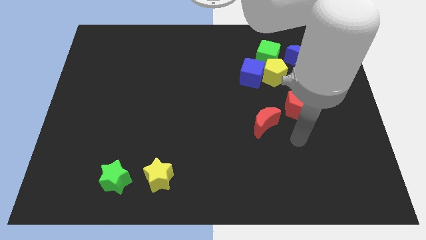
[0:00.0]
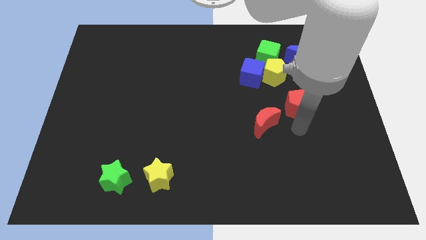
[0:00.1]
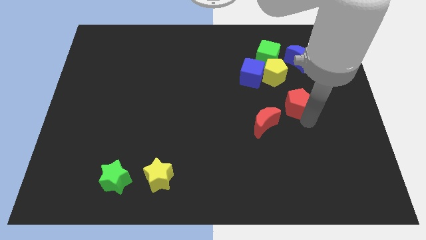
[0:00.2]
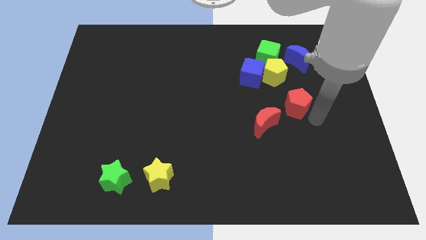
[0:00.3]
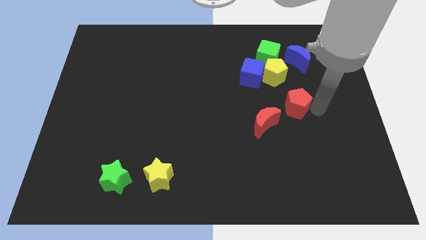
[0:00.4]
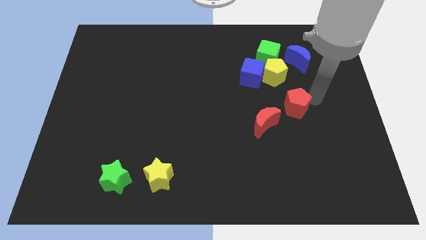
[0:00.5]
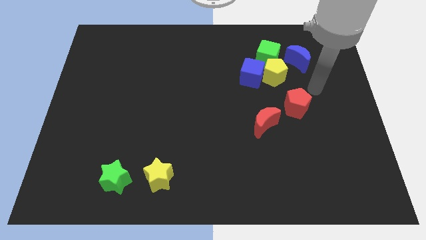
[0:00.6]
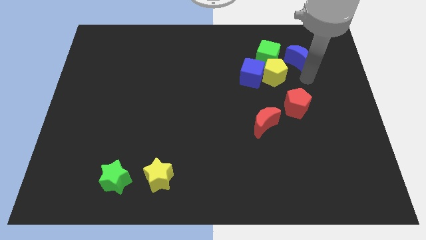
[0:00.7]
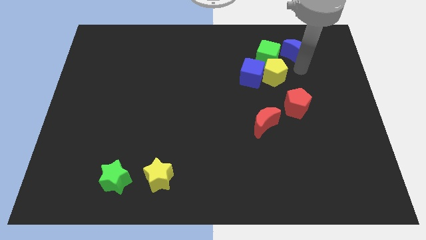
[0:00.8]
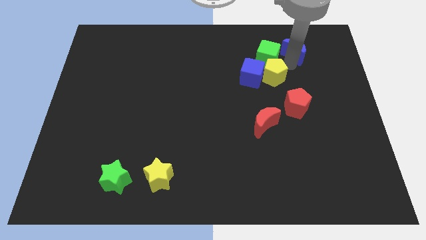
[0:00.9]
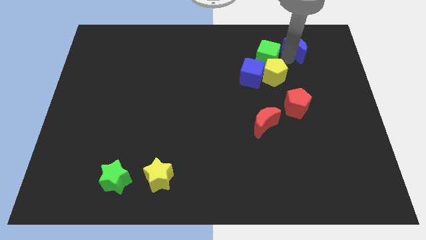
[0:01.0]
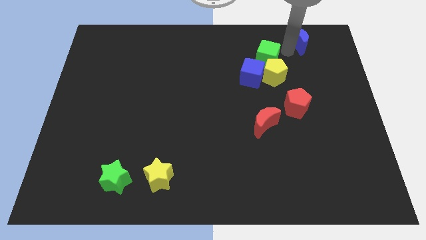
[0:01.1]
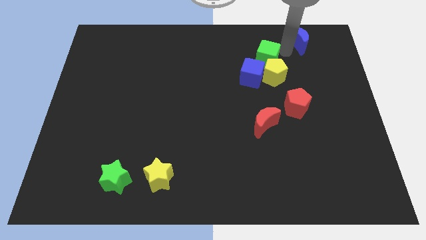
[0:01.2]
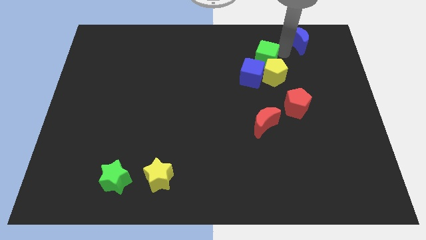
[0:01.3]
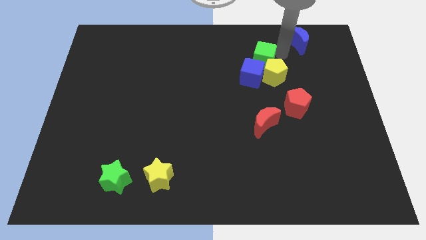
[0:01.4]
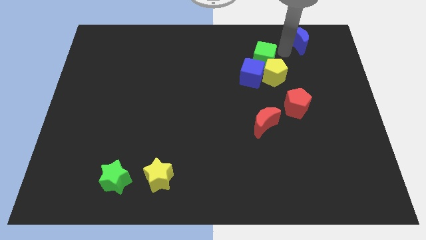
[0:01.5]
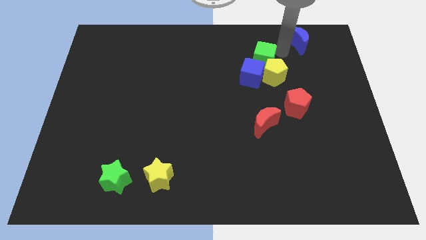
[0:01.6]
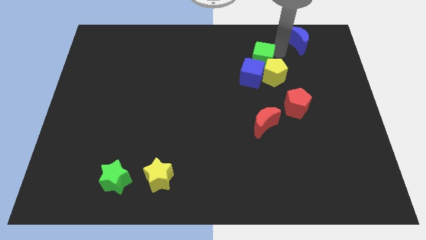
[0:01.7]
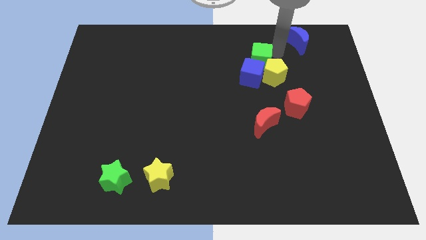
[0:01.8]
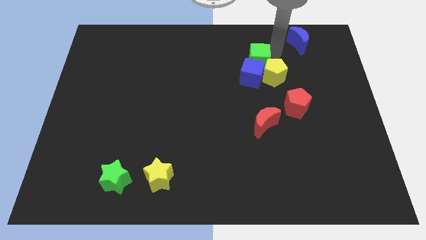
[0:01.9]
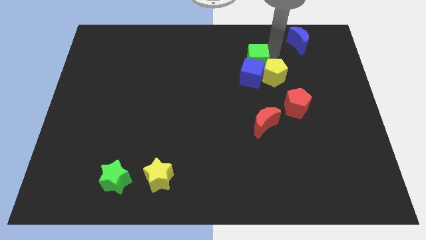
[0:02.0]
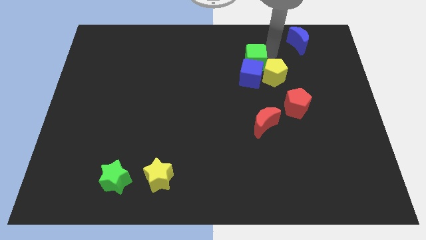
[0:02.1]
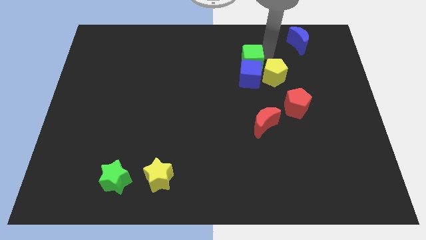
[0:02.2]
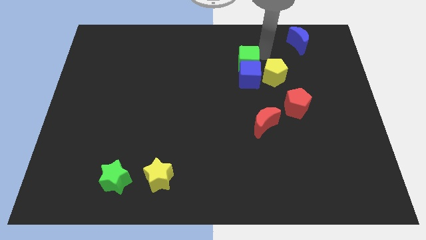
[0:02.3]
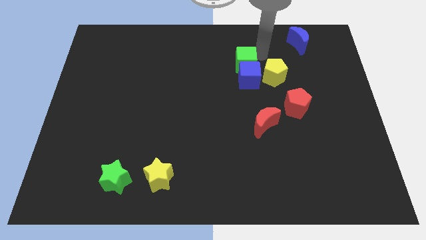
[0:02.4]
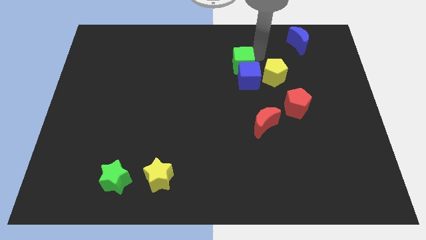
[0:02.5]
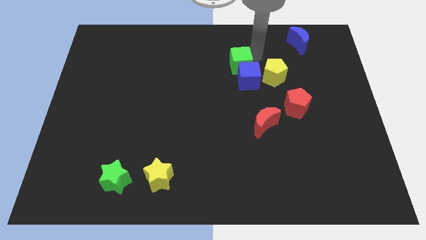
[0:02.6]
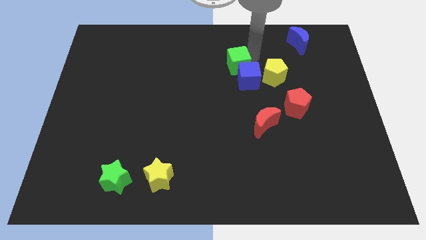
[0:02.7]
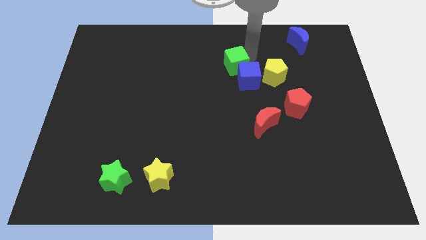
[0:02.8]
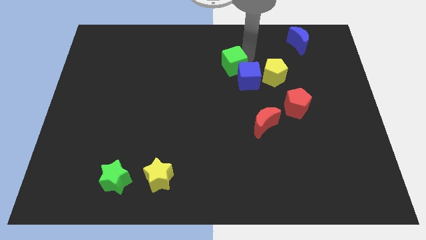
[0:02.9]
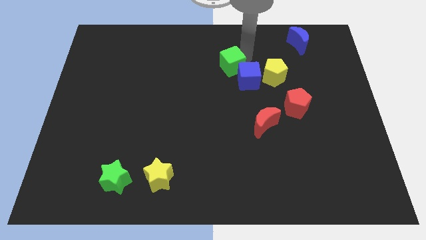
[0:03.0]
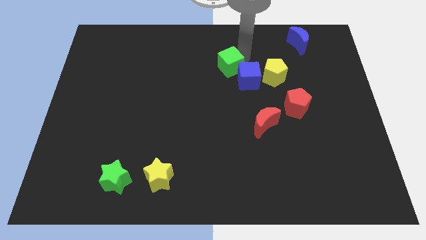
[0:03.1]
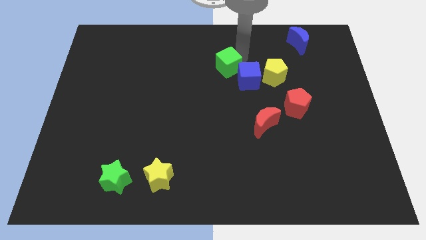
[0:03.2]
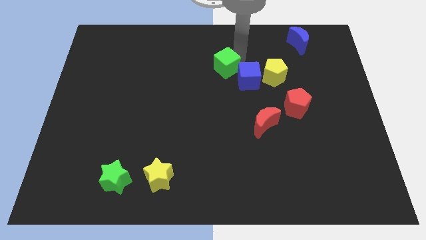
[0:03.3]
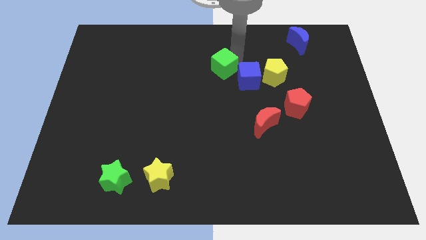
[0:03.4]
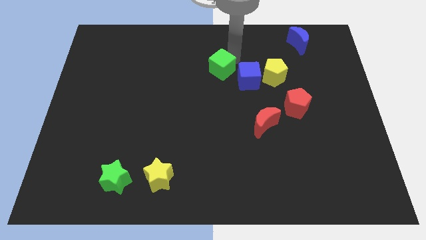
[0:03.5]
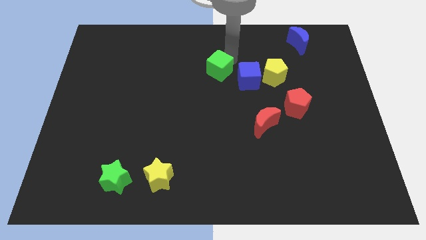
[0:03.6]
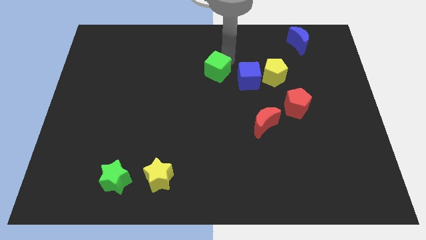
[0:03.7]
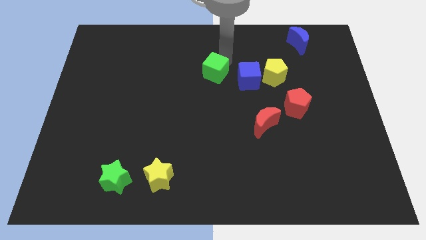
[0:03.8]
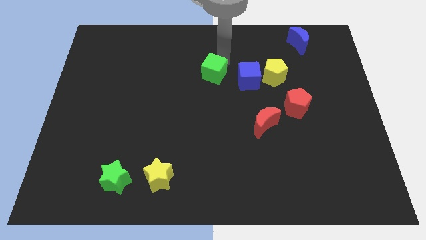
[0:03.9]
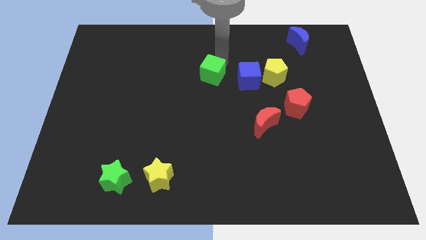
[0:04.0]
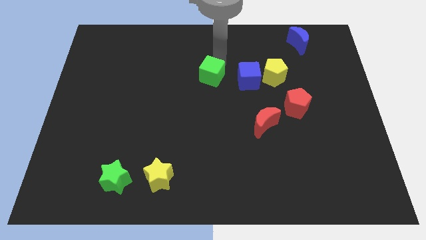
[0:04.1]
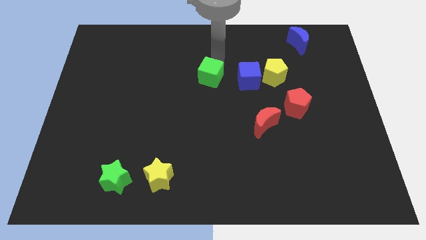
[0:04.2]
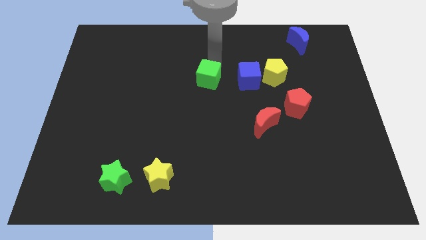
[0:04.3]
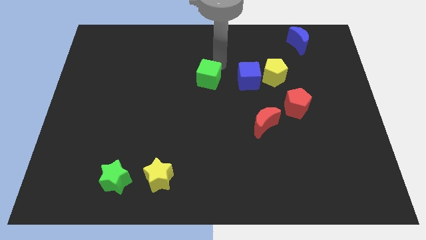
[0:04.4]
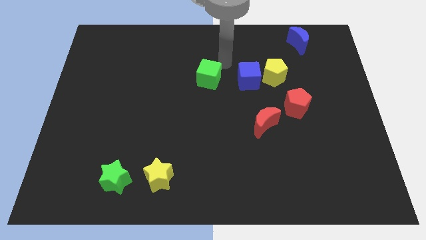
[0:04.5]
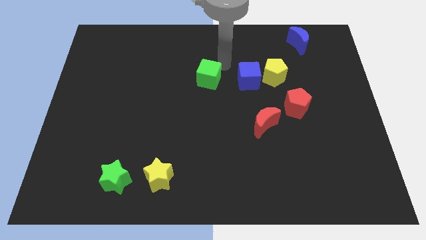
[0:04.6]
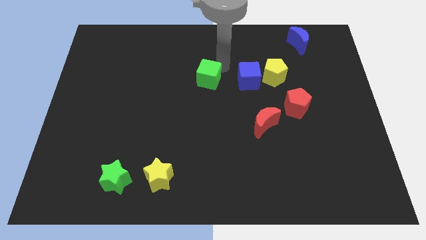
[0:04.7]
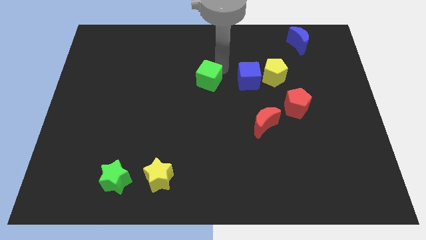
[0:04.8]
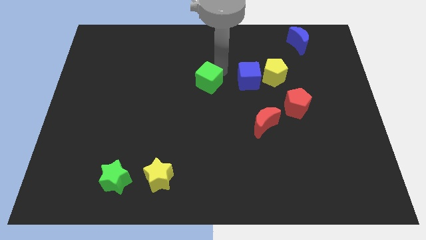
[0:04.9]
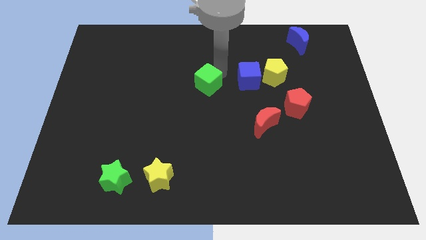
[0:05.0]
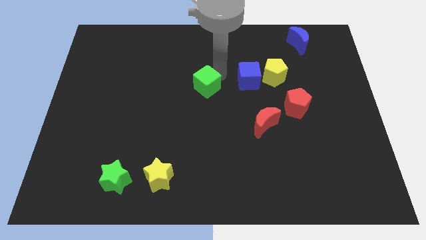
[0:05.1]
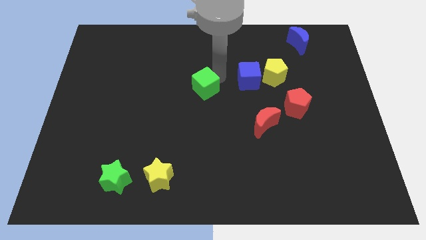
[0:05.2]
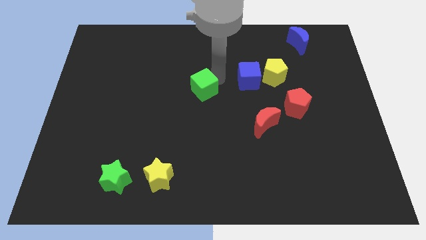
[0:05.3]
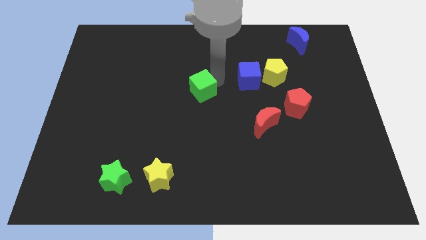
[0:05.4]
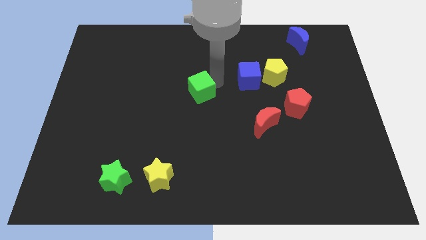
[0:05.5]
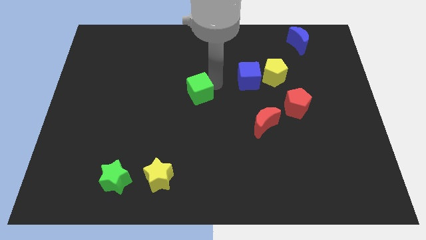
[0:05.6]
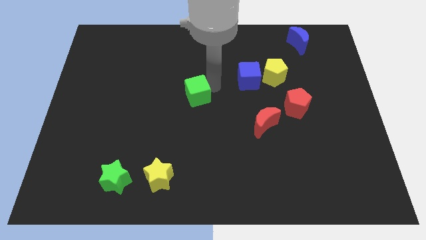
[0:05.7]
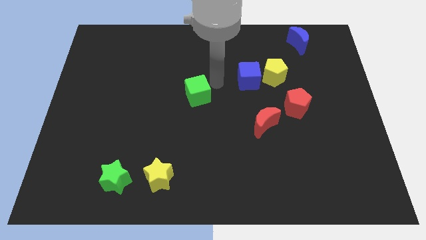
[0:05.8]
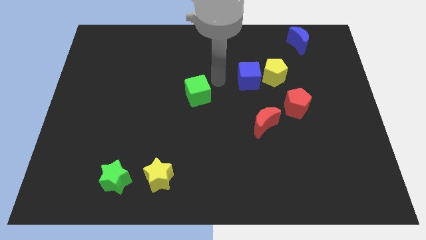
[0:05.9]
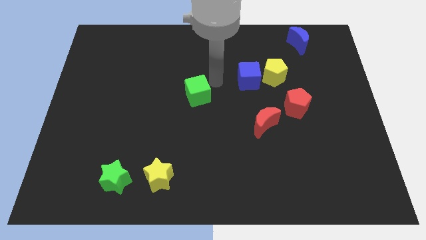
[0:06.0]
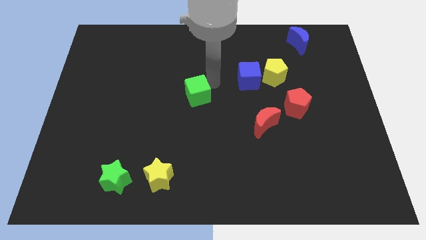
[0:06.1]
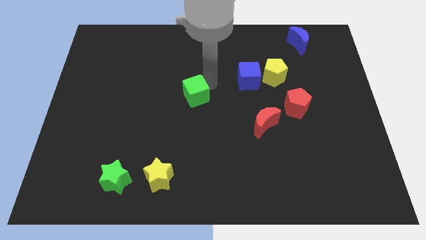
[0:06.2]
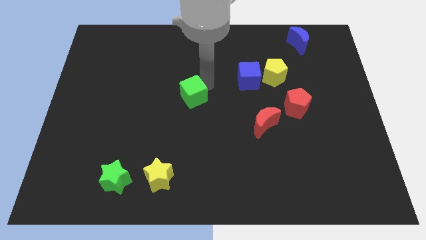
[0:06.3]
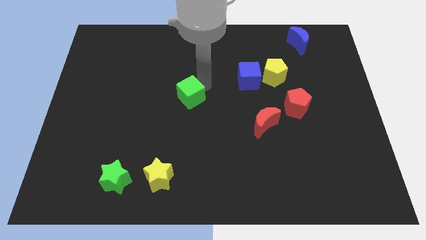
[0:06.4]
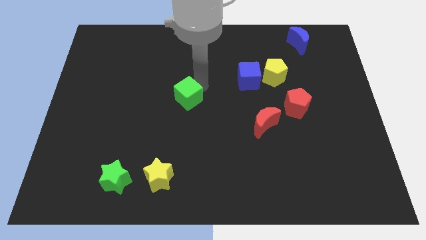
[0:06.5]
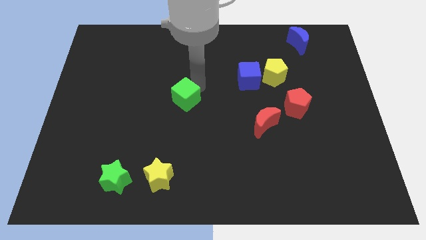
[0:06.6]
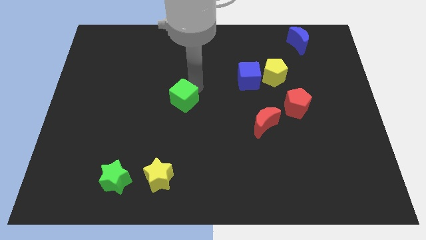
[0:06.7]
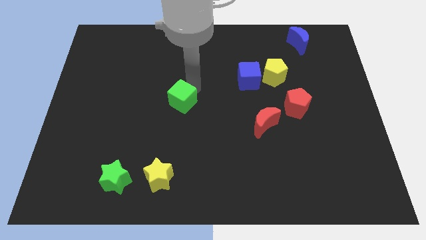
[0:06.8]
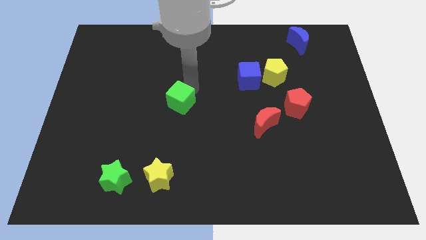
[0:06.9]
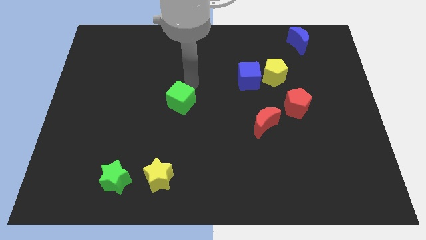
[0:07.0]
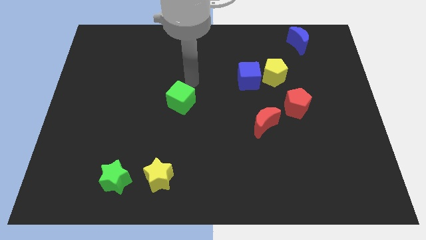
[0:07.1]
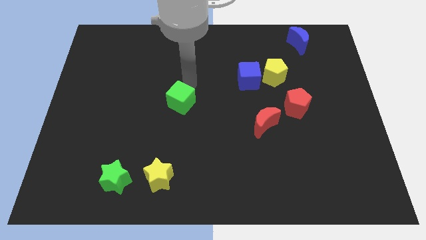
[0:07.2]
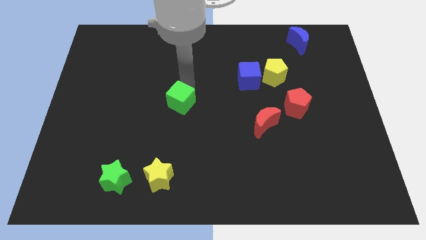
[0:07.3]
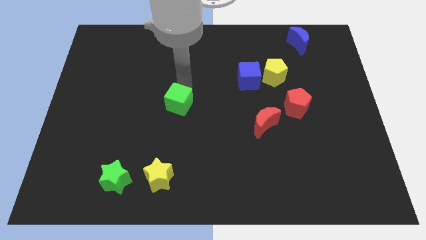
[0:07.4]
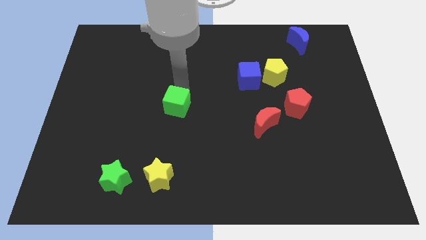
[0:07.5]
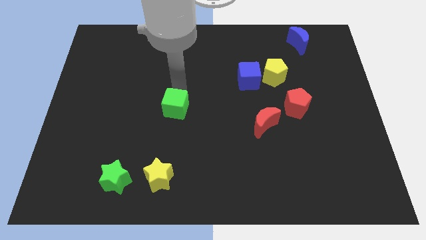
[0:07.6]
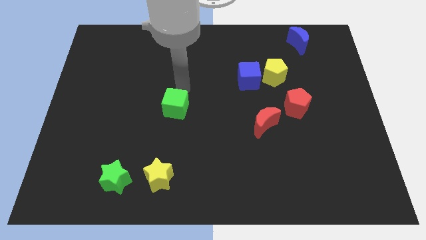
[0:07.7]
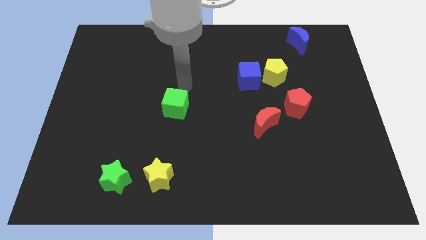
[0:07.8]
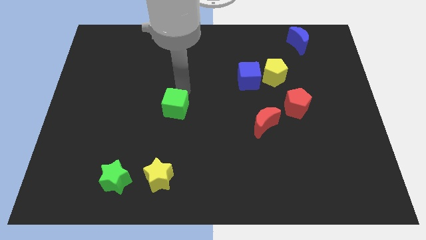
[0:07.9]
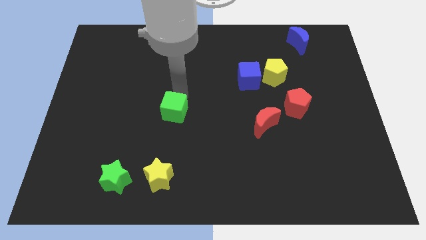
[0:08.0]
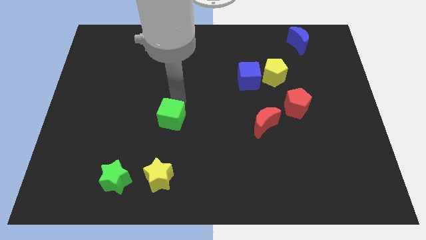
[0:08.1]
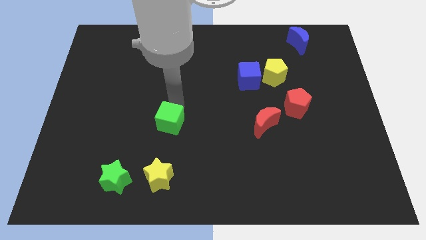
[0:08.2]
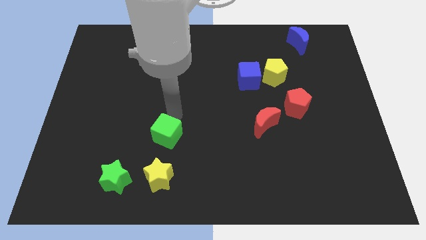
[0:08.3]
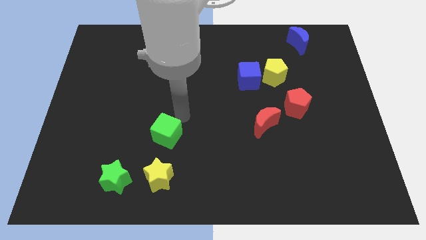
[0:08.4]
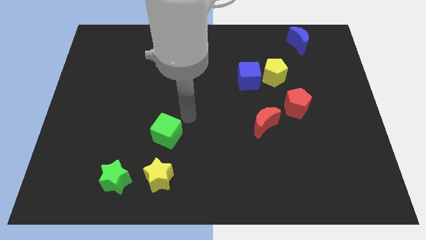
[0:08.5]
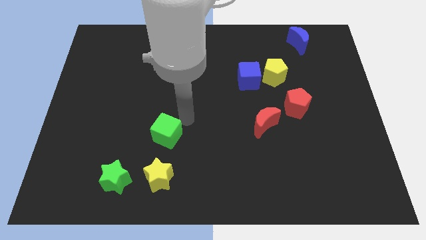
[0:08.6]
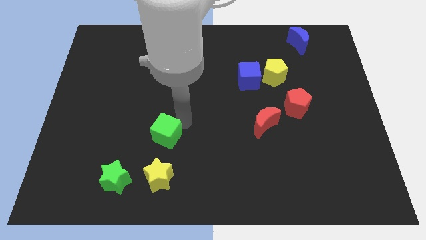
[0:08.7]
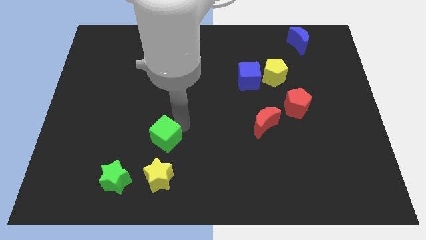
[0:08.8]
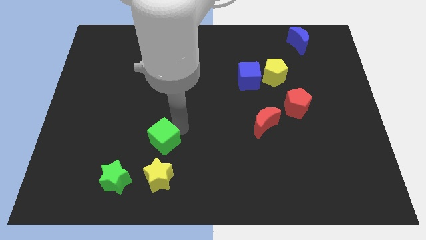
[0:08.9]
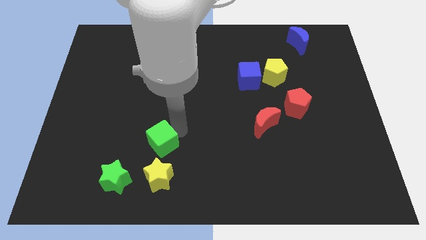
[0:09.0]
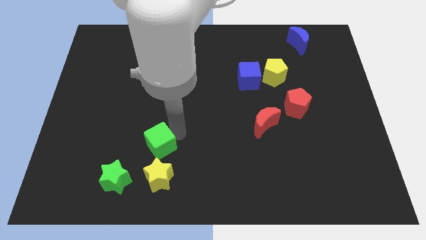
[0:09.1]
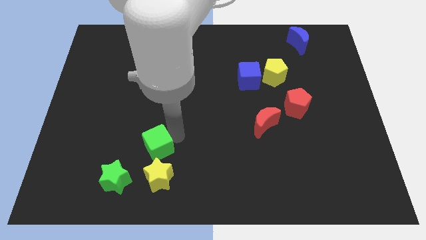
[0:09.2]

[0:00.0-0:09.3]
put the green cube to the top left side of the yellow star
